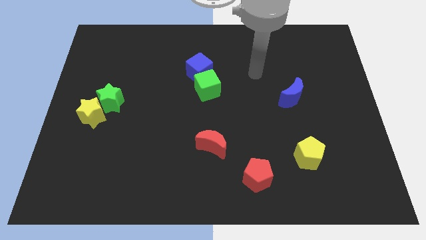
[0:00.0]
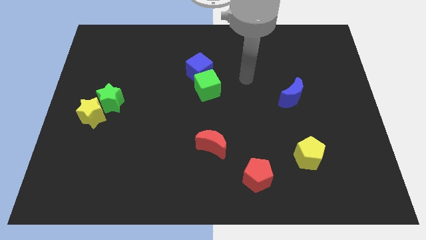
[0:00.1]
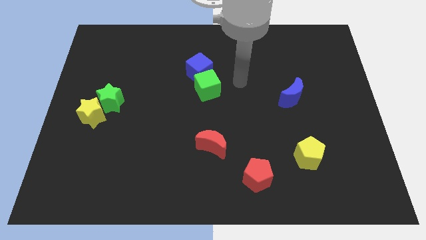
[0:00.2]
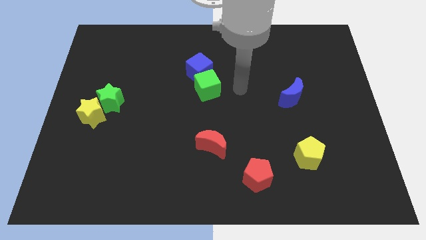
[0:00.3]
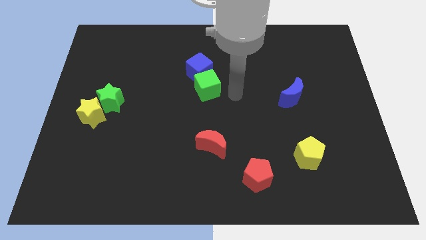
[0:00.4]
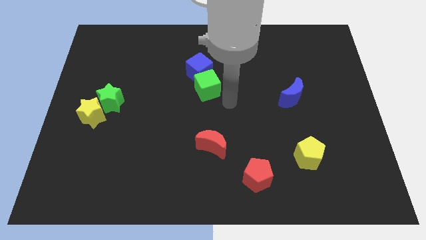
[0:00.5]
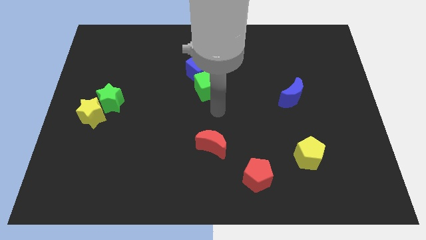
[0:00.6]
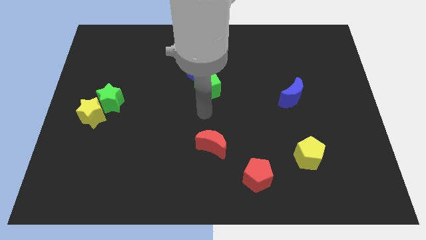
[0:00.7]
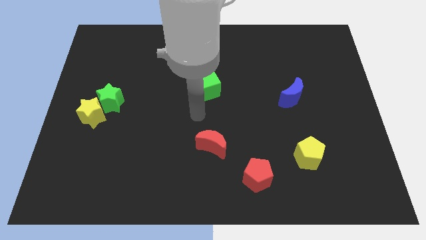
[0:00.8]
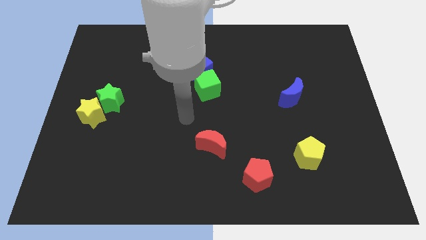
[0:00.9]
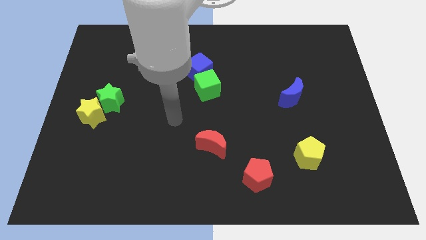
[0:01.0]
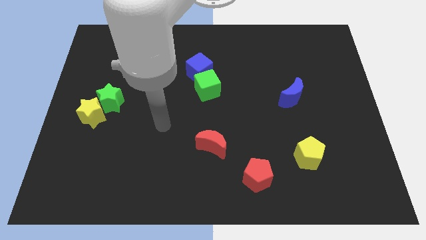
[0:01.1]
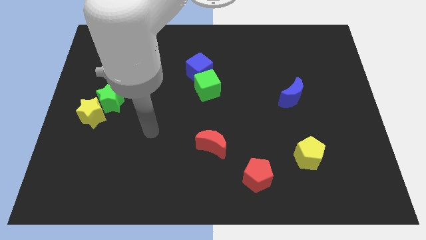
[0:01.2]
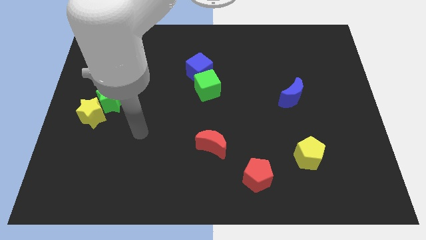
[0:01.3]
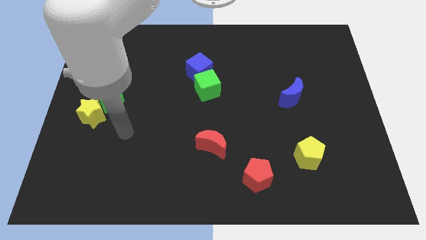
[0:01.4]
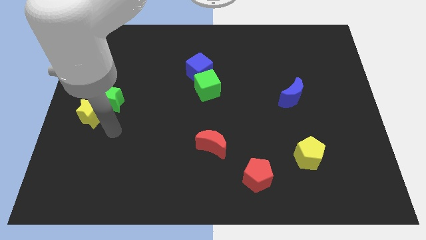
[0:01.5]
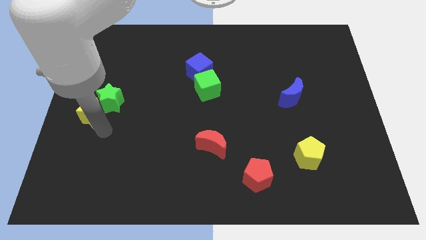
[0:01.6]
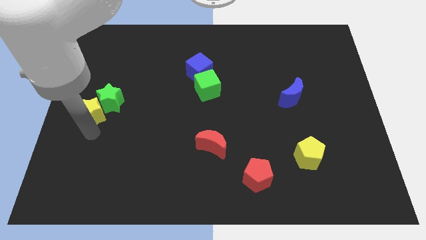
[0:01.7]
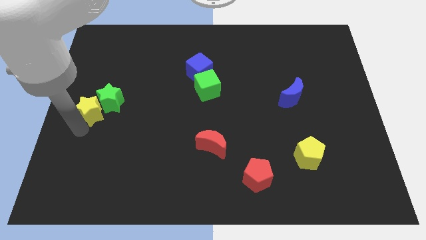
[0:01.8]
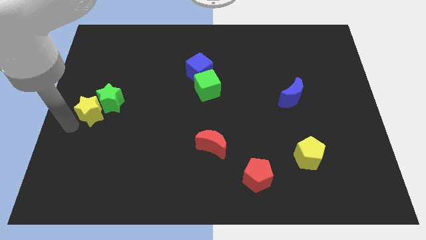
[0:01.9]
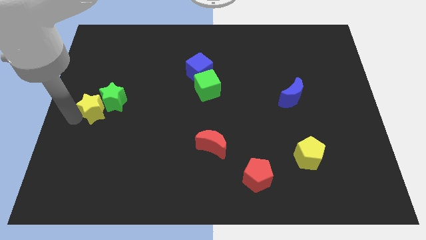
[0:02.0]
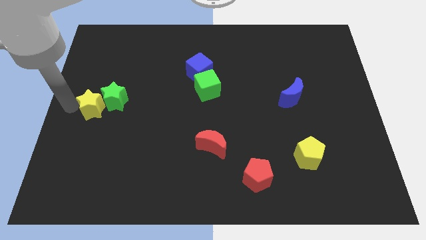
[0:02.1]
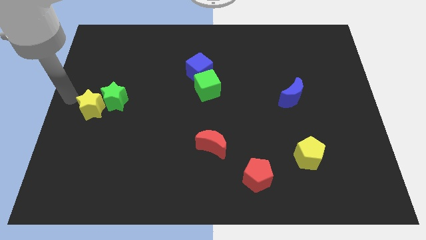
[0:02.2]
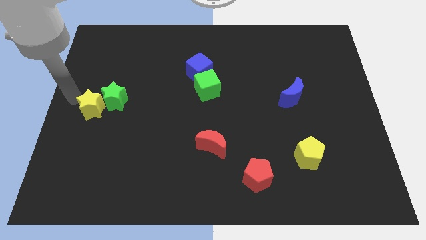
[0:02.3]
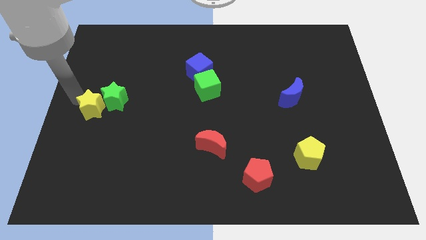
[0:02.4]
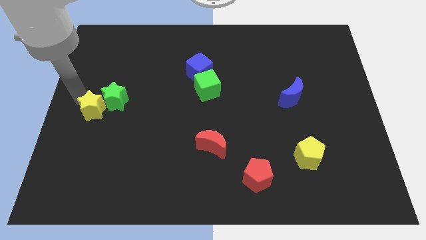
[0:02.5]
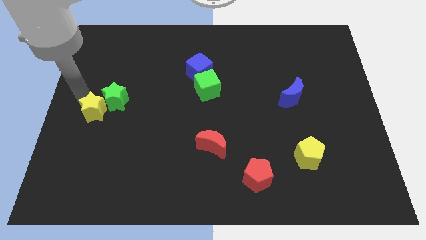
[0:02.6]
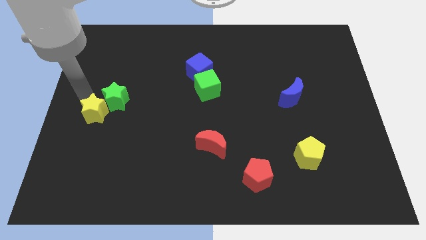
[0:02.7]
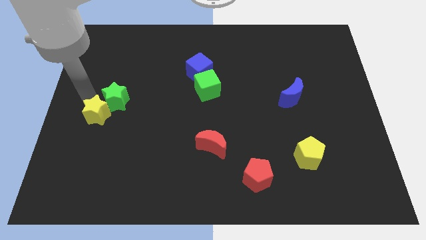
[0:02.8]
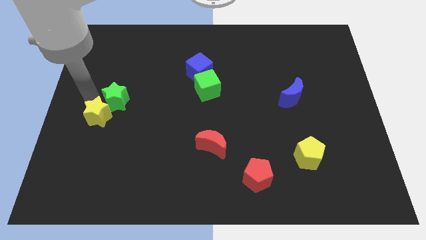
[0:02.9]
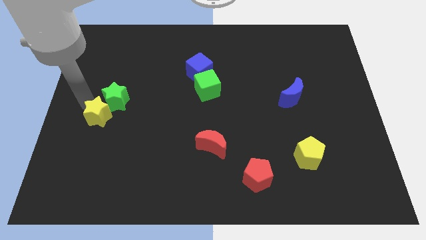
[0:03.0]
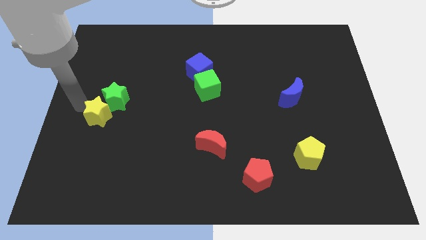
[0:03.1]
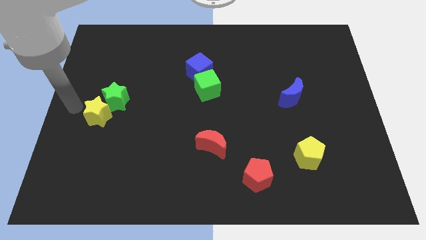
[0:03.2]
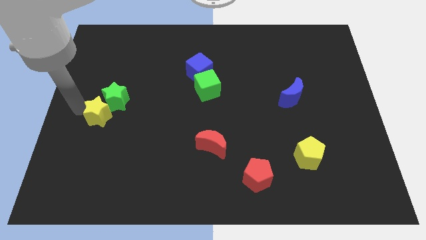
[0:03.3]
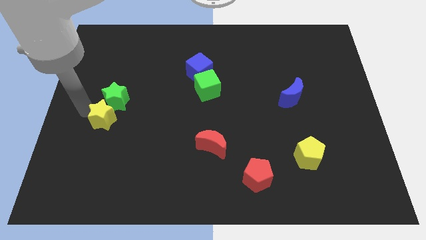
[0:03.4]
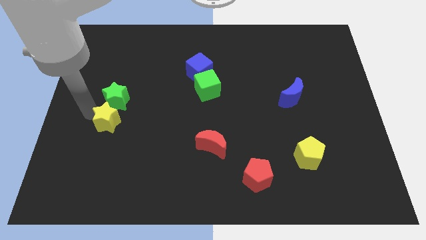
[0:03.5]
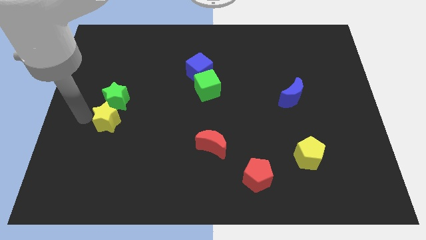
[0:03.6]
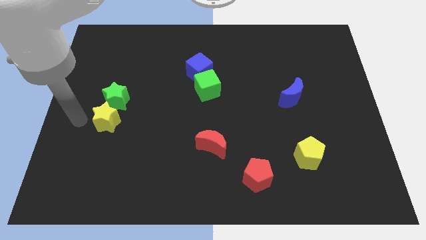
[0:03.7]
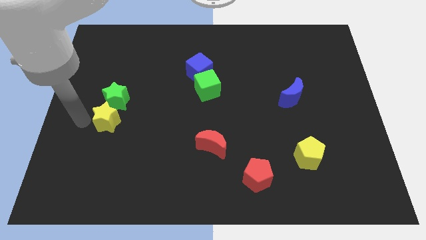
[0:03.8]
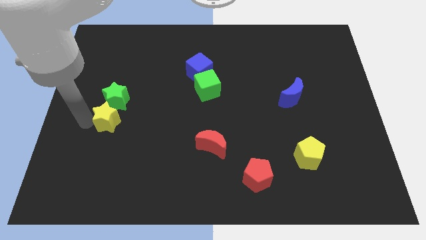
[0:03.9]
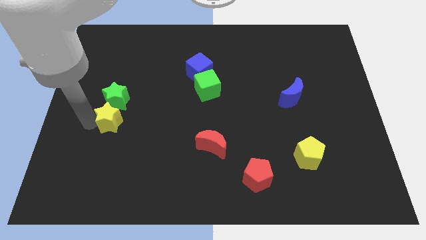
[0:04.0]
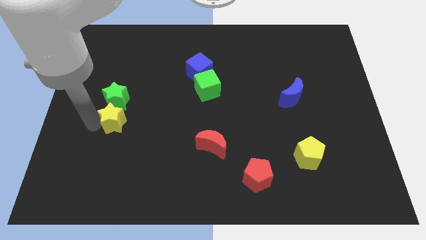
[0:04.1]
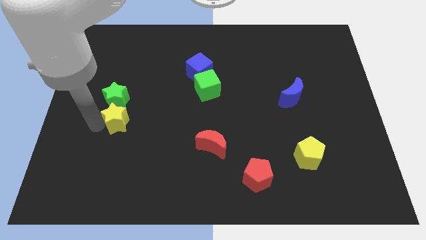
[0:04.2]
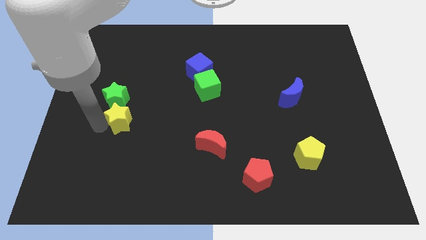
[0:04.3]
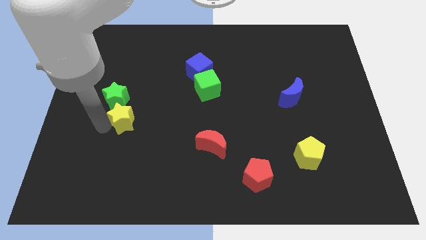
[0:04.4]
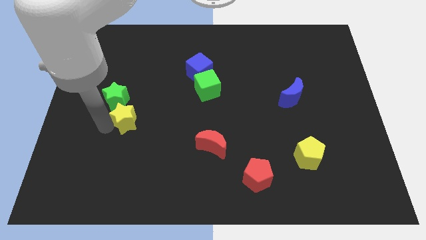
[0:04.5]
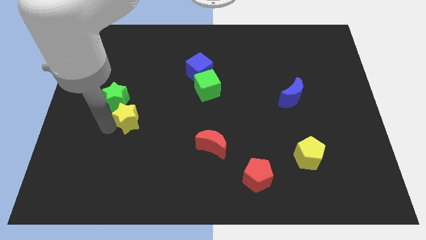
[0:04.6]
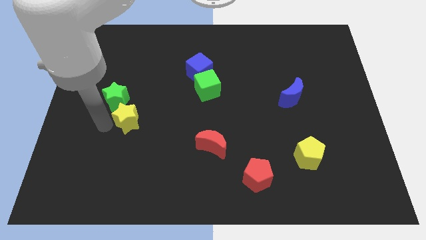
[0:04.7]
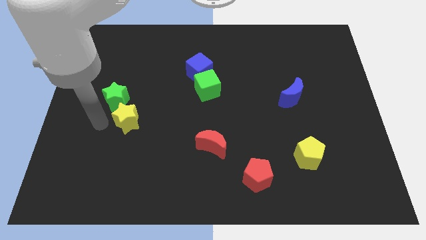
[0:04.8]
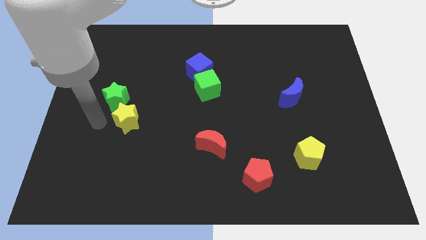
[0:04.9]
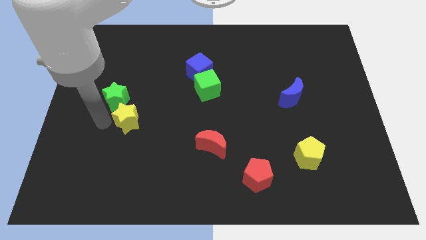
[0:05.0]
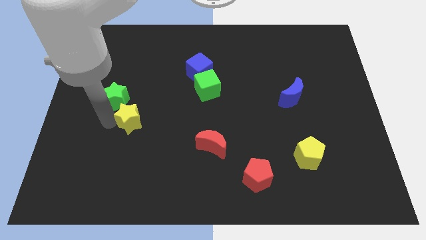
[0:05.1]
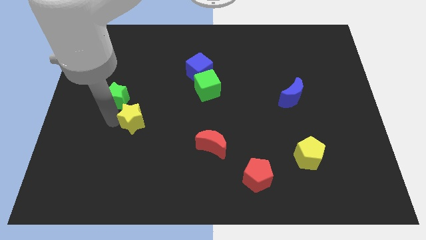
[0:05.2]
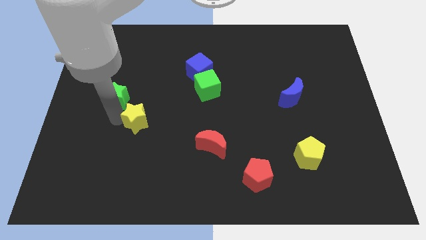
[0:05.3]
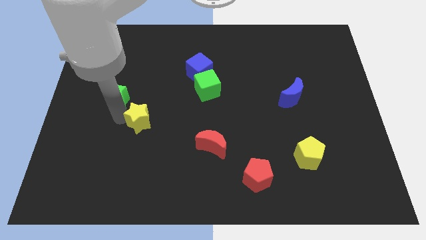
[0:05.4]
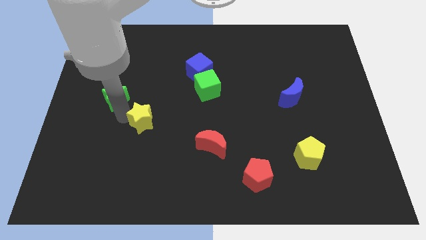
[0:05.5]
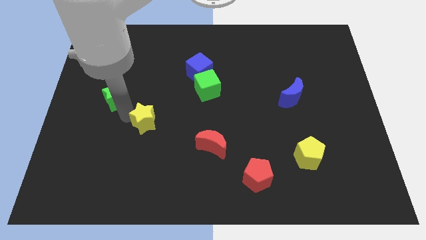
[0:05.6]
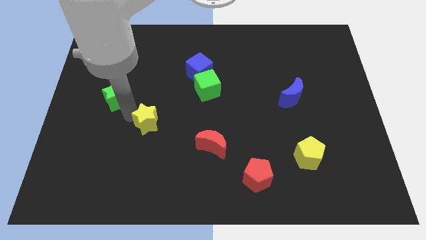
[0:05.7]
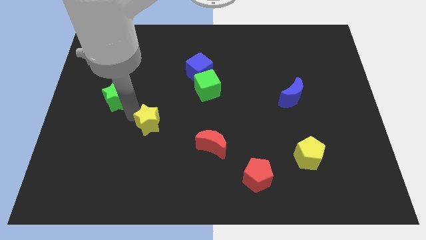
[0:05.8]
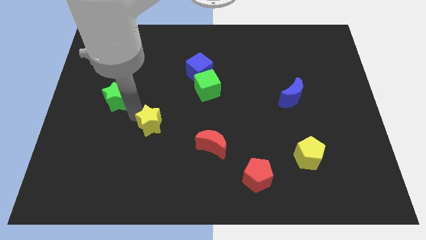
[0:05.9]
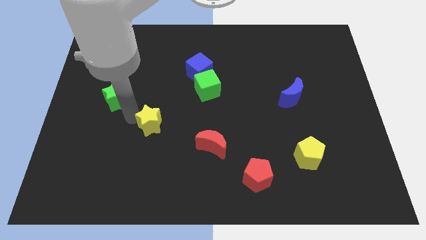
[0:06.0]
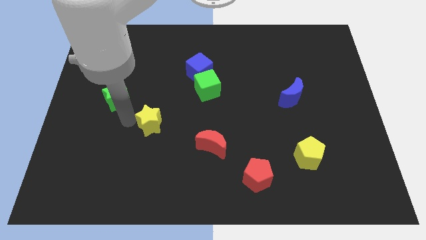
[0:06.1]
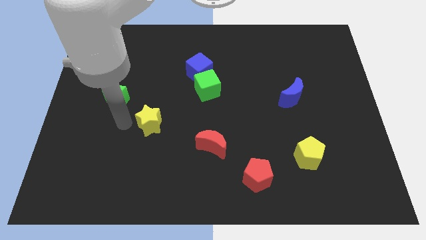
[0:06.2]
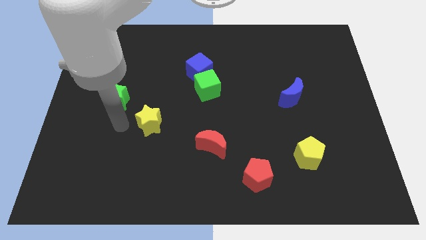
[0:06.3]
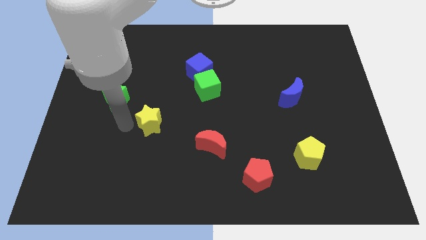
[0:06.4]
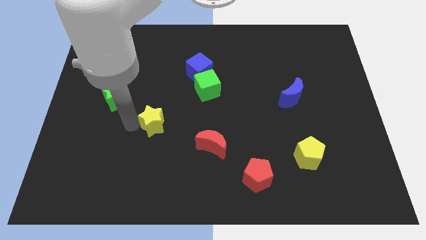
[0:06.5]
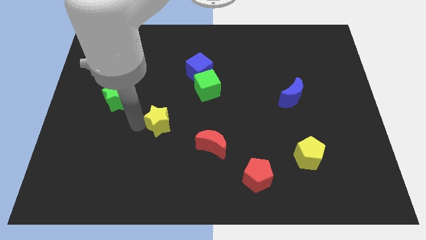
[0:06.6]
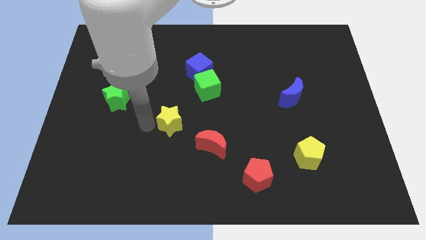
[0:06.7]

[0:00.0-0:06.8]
slide the yellow star to the middle
